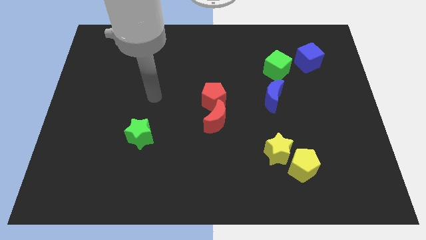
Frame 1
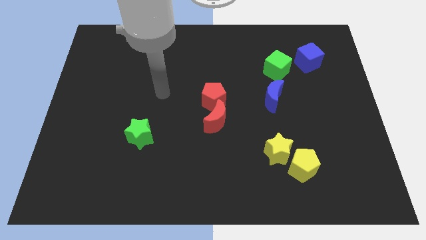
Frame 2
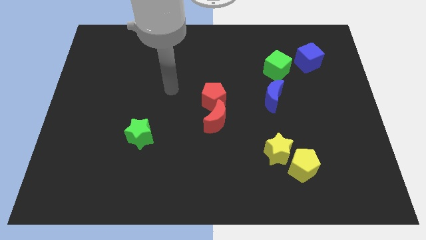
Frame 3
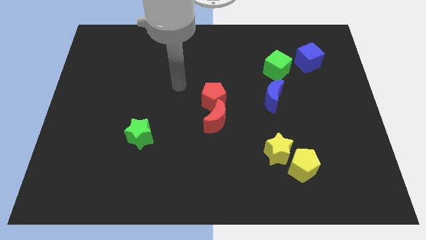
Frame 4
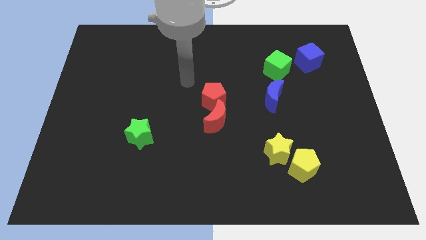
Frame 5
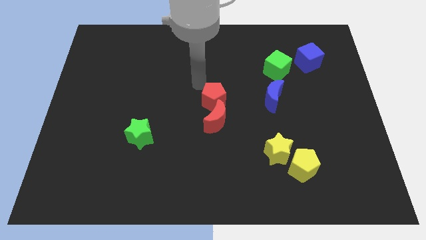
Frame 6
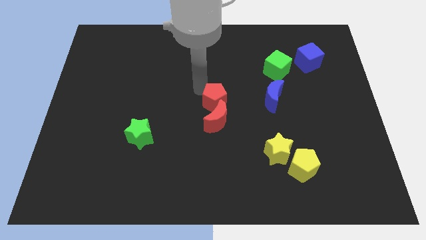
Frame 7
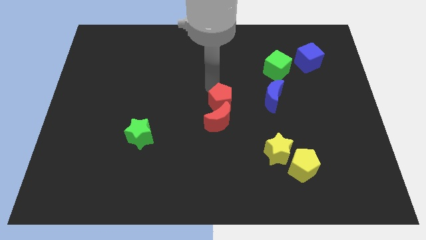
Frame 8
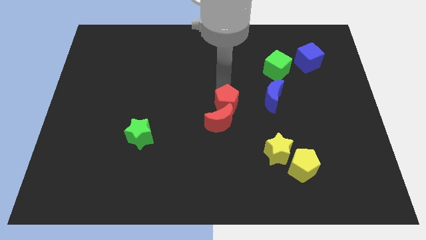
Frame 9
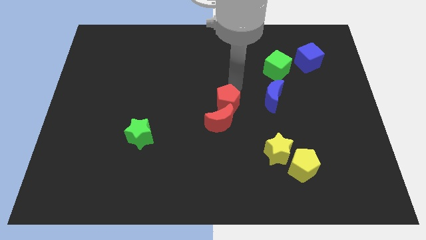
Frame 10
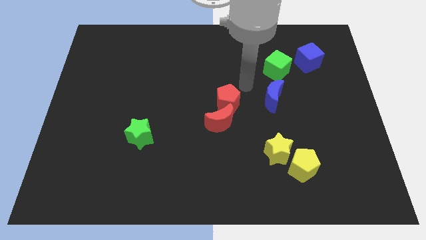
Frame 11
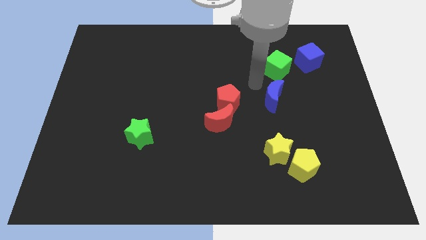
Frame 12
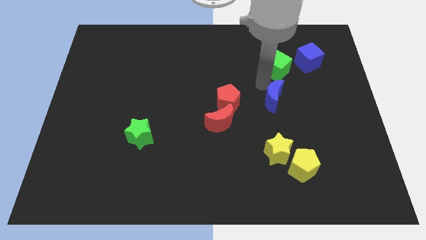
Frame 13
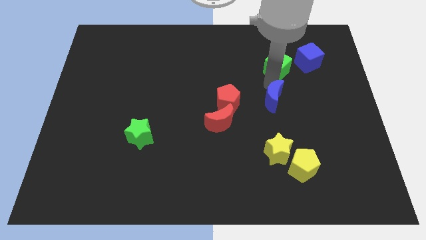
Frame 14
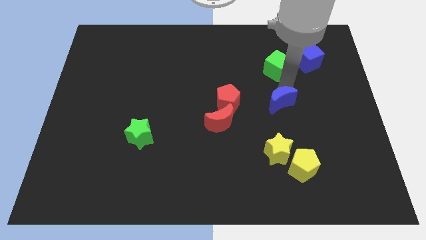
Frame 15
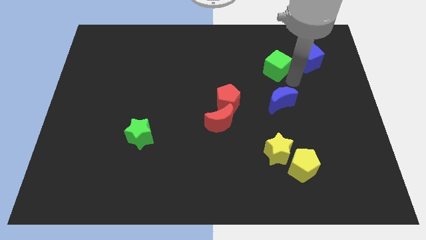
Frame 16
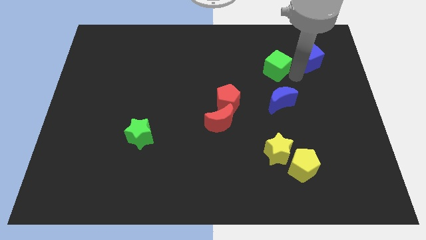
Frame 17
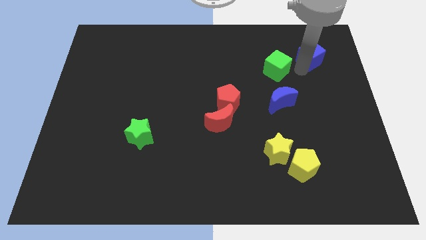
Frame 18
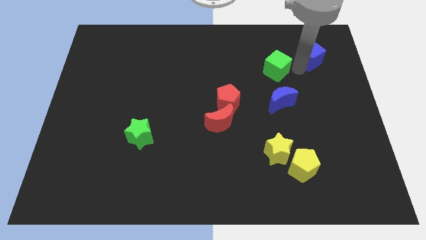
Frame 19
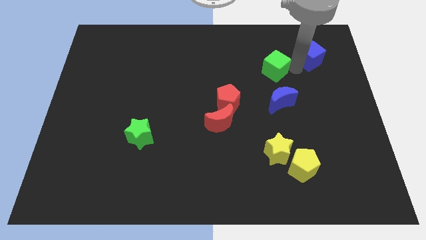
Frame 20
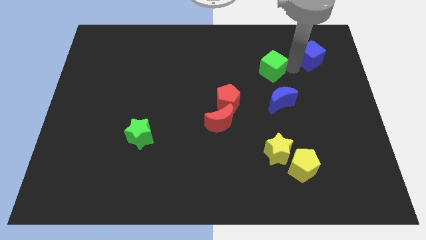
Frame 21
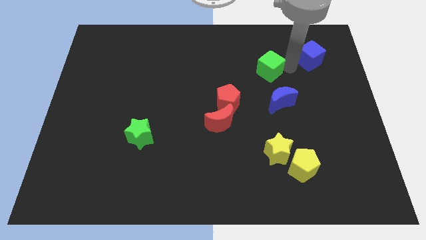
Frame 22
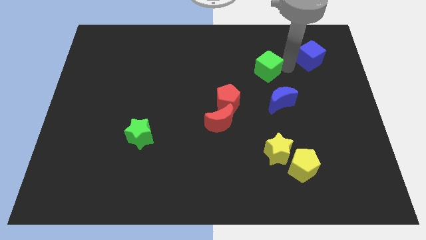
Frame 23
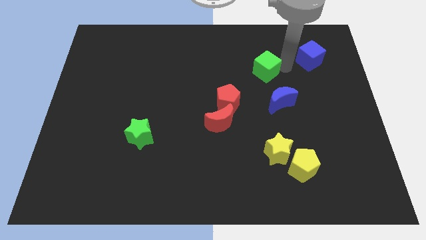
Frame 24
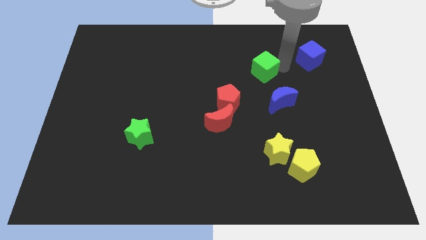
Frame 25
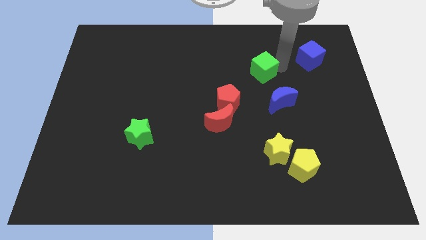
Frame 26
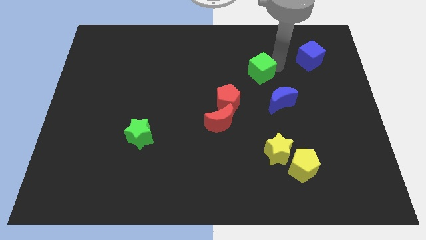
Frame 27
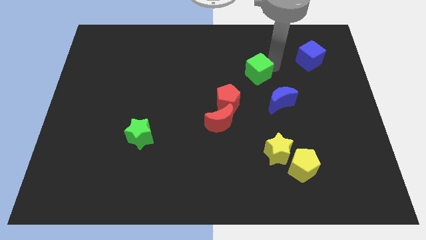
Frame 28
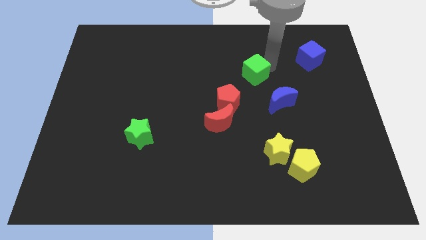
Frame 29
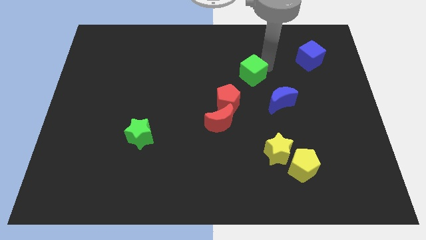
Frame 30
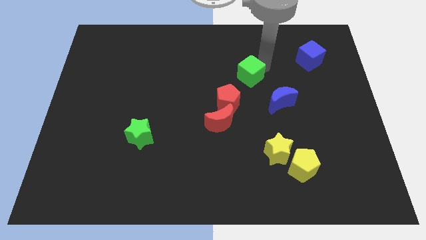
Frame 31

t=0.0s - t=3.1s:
slightly push the green cube to the left

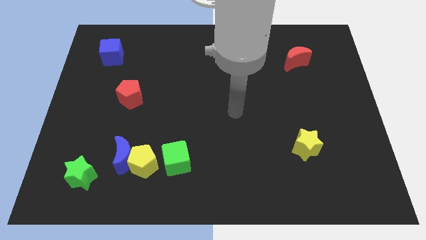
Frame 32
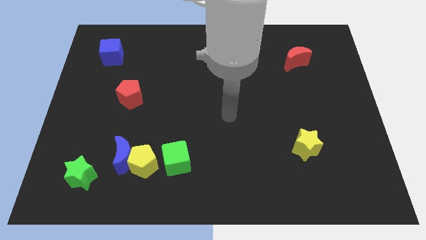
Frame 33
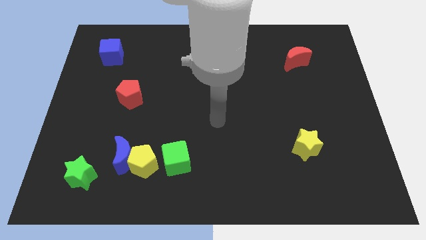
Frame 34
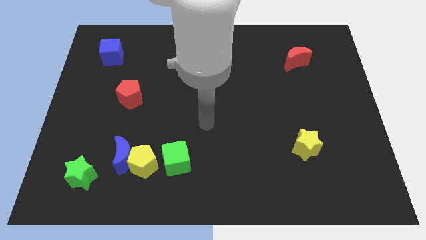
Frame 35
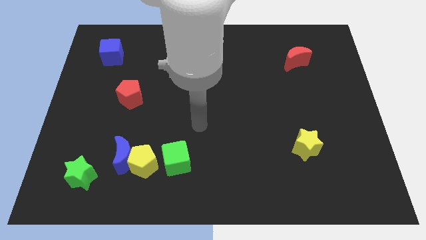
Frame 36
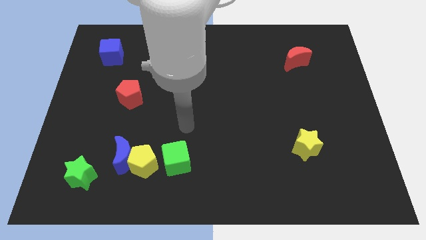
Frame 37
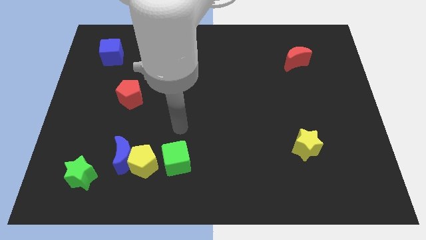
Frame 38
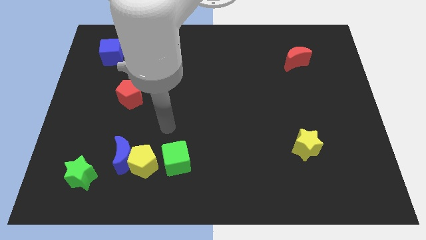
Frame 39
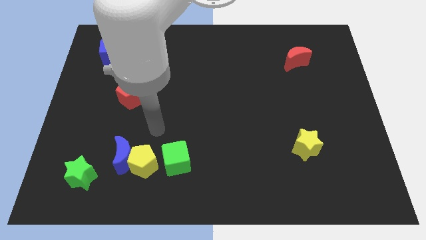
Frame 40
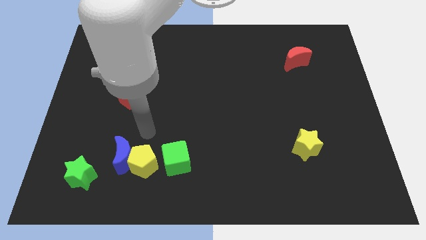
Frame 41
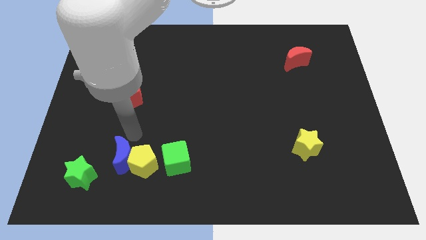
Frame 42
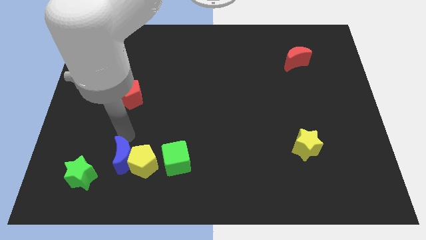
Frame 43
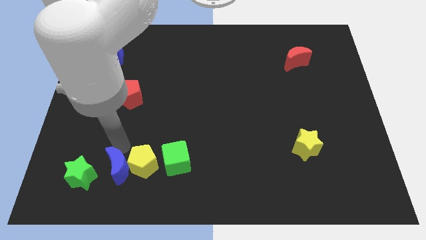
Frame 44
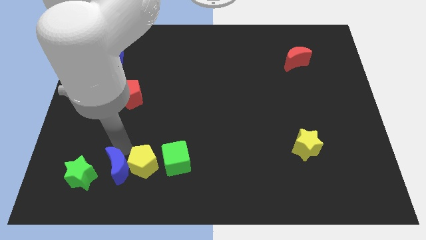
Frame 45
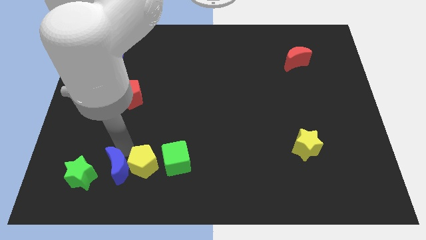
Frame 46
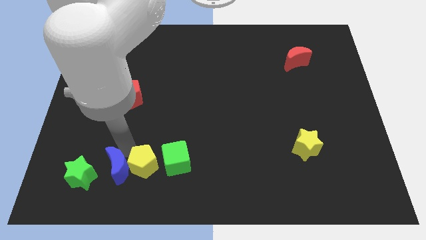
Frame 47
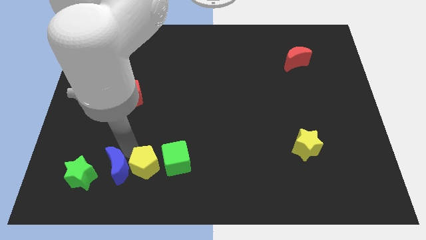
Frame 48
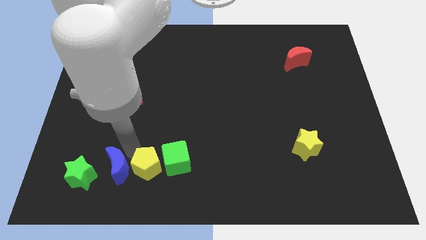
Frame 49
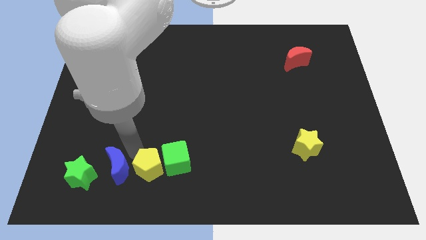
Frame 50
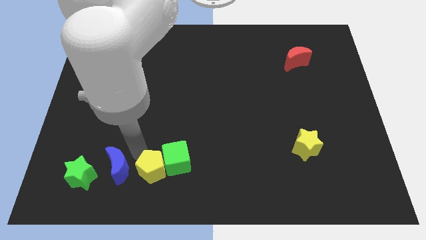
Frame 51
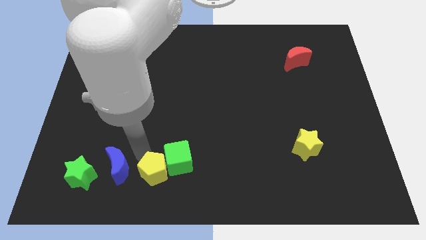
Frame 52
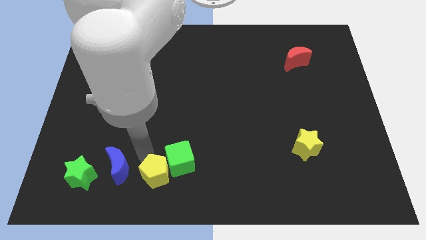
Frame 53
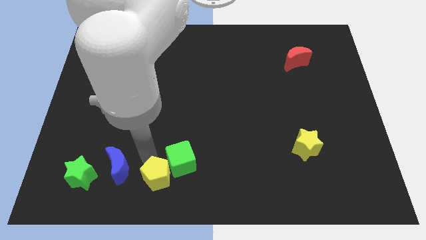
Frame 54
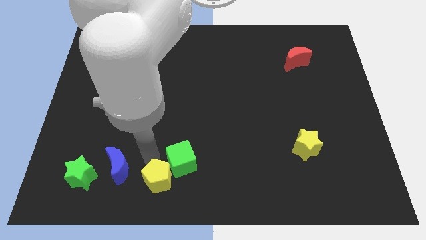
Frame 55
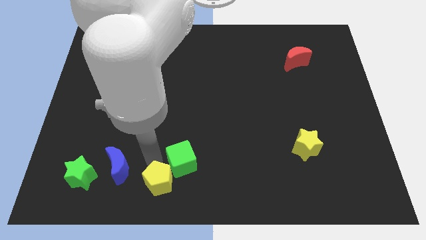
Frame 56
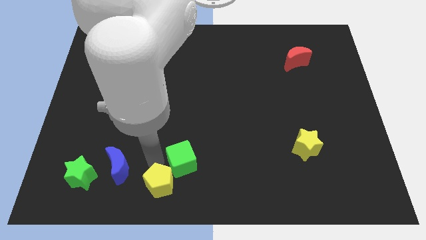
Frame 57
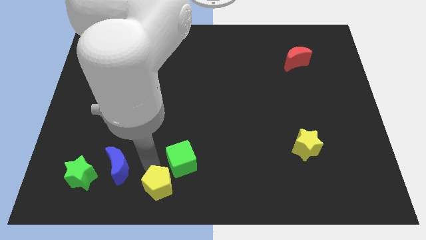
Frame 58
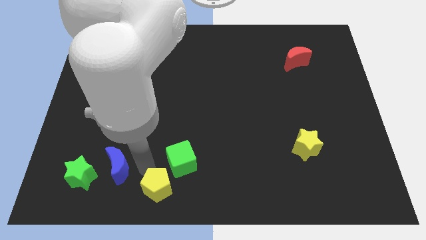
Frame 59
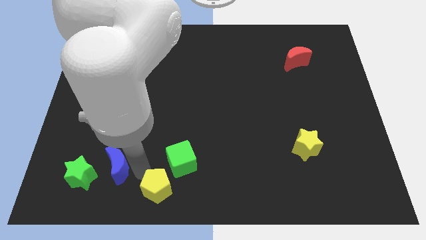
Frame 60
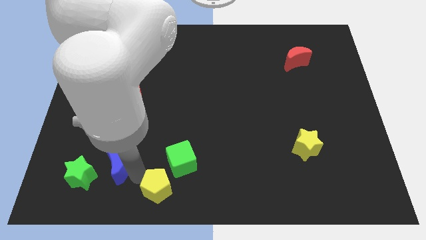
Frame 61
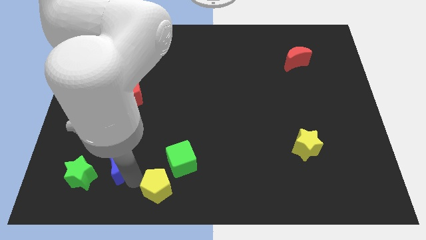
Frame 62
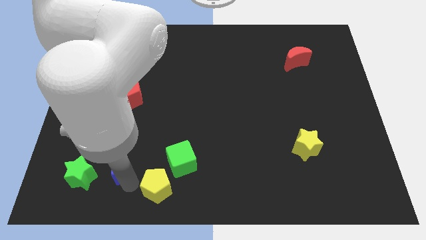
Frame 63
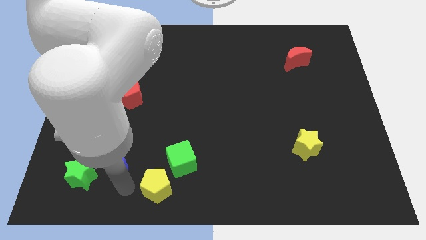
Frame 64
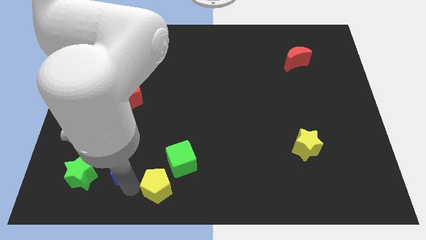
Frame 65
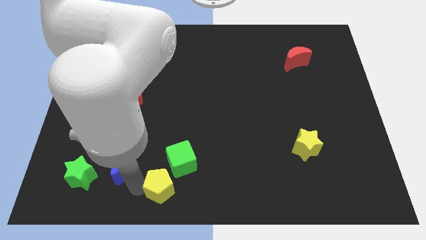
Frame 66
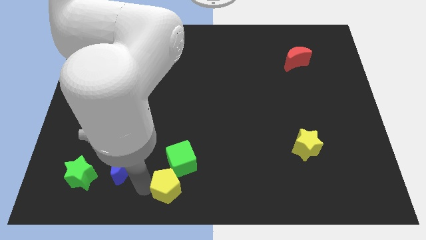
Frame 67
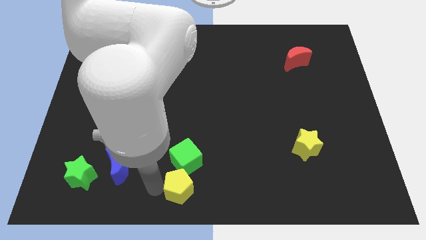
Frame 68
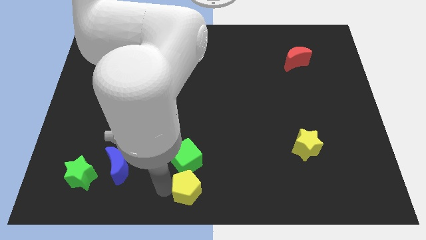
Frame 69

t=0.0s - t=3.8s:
slide the yellow pentagon slightly right

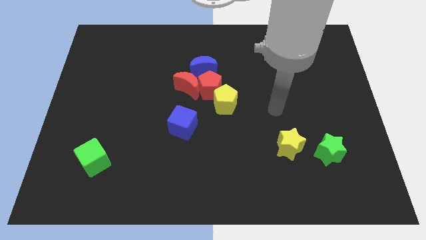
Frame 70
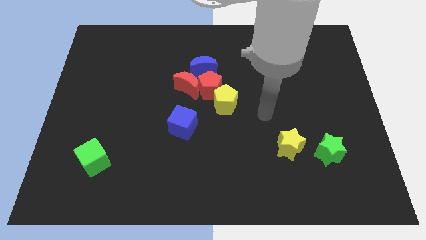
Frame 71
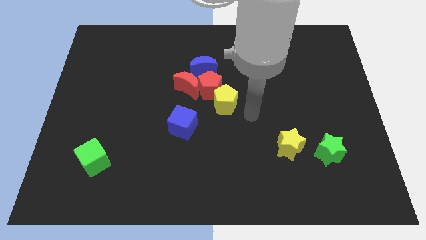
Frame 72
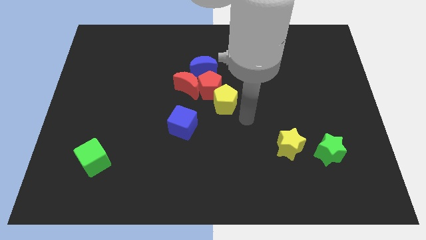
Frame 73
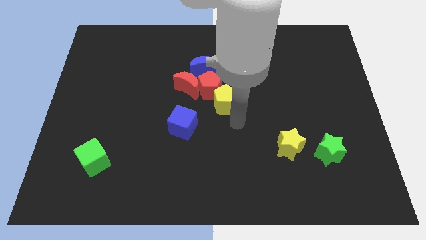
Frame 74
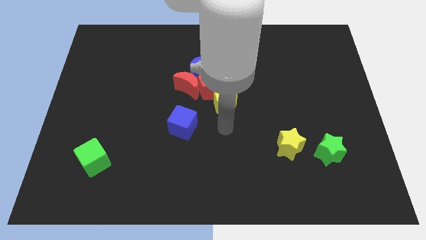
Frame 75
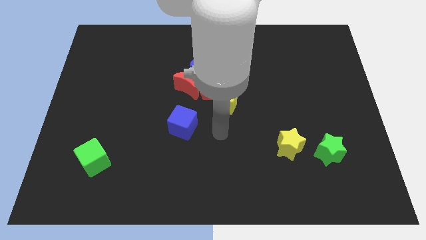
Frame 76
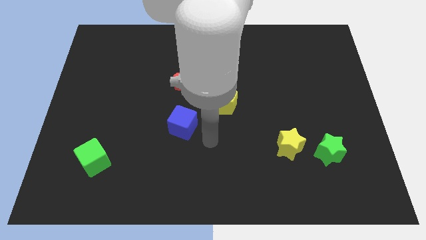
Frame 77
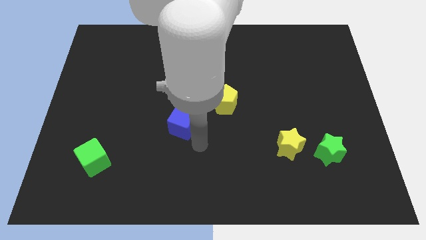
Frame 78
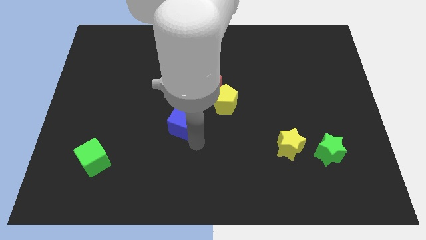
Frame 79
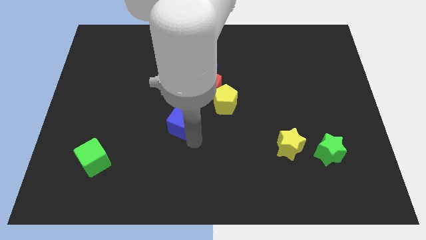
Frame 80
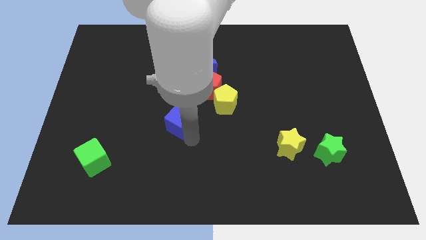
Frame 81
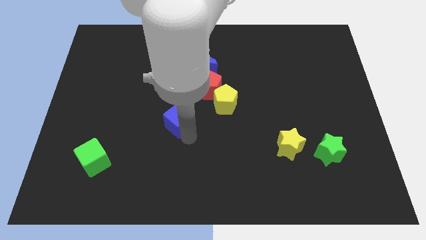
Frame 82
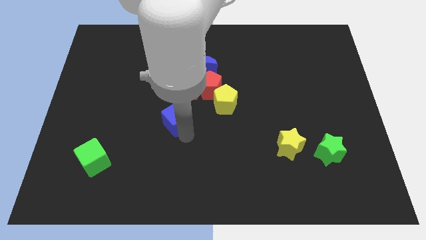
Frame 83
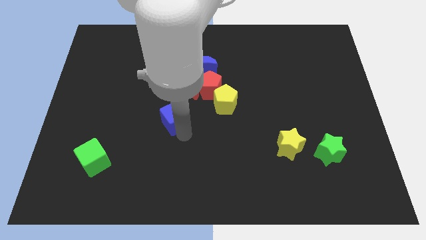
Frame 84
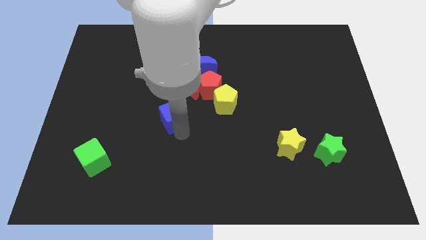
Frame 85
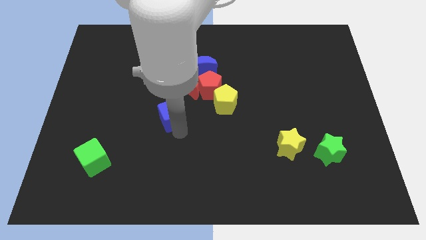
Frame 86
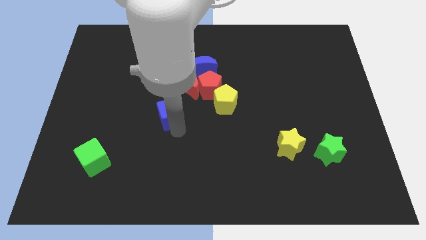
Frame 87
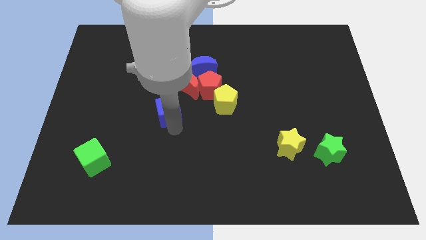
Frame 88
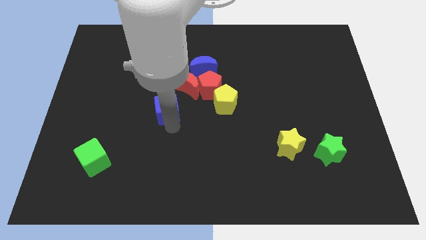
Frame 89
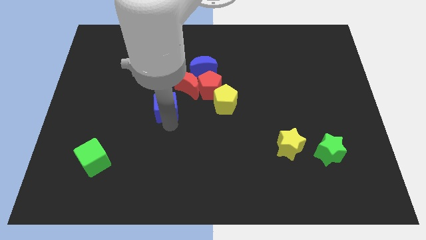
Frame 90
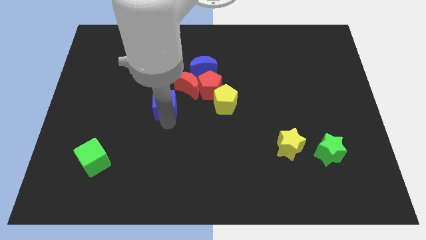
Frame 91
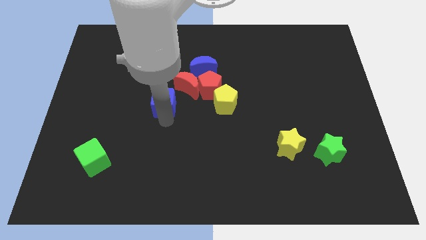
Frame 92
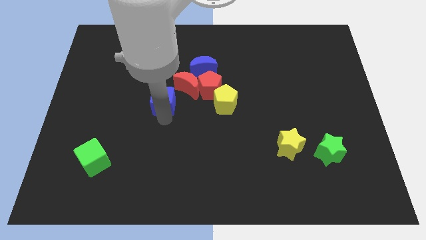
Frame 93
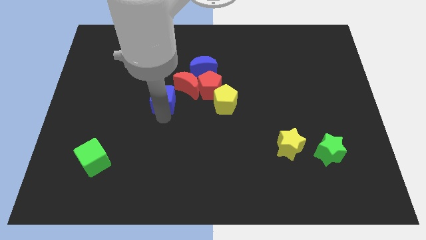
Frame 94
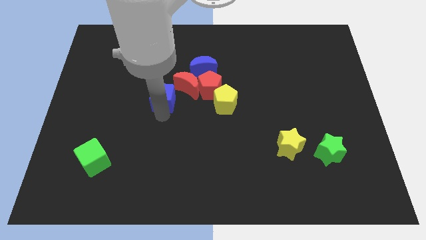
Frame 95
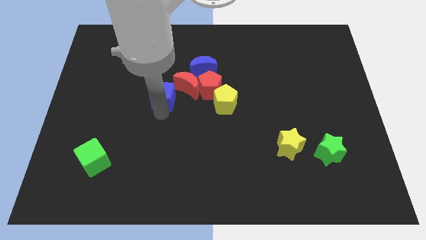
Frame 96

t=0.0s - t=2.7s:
slightly move the blue cube up
